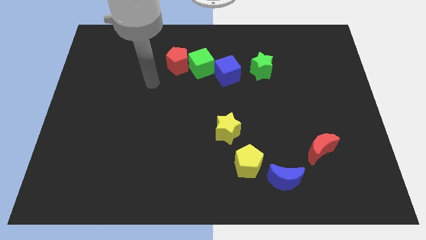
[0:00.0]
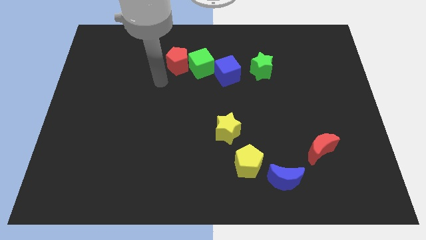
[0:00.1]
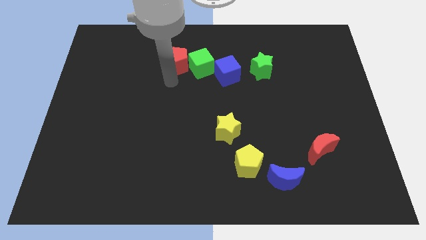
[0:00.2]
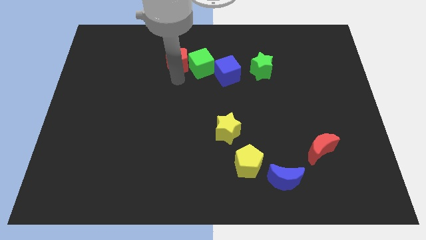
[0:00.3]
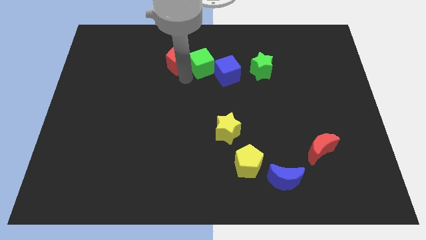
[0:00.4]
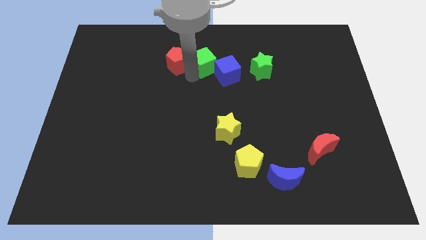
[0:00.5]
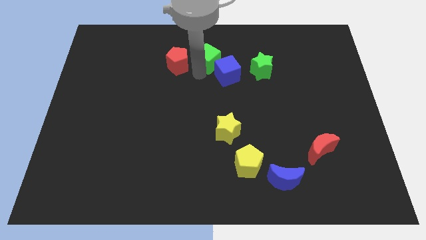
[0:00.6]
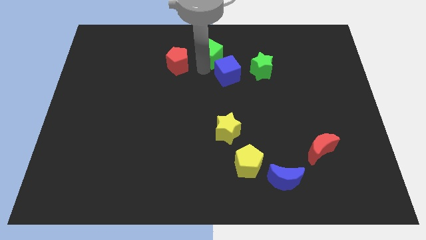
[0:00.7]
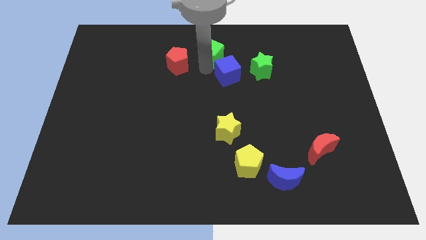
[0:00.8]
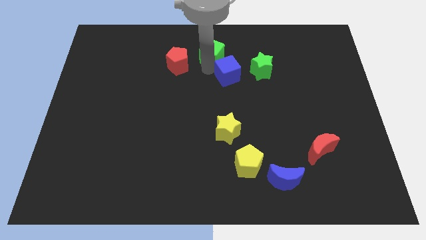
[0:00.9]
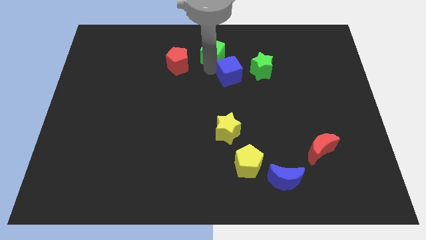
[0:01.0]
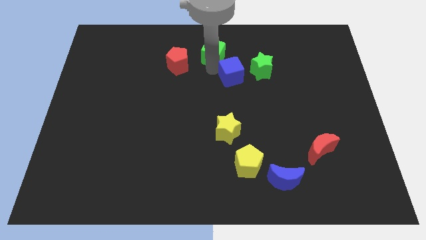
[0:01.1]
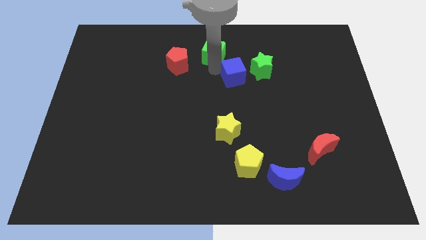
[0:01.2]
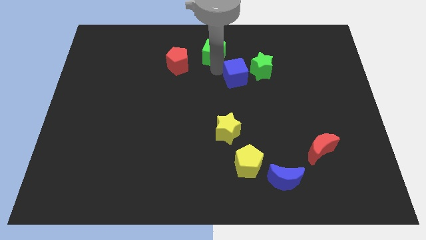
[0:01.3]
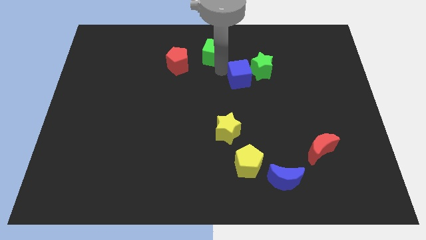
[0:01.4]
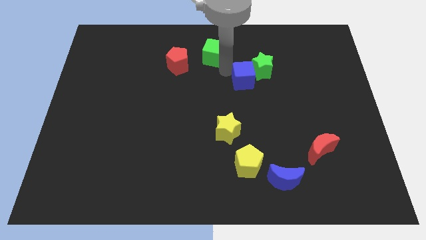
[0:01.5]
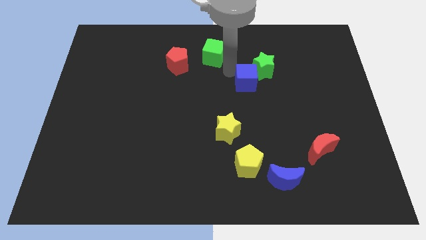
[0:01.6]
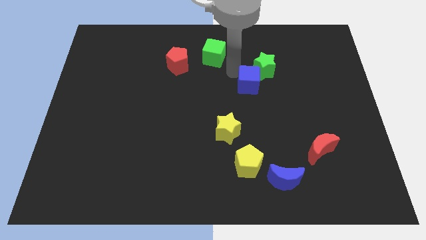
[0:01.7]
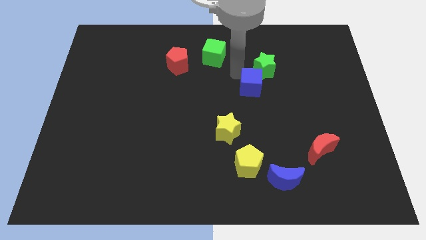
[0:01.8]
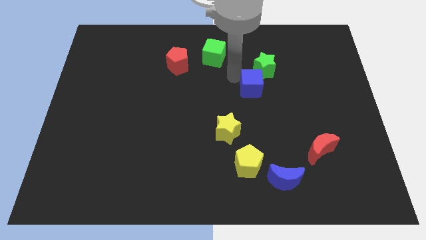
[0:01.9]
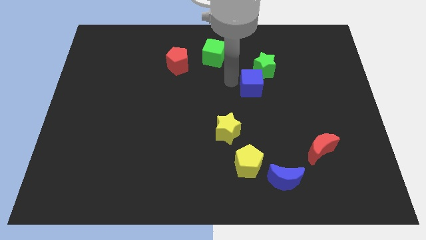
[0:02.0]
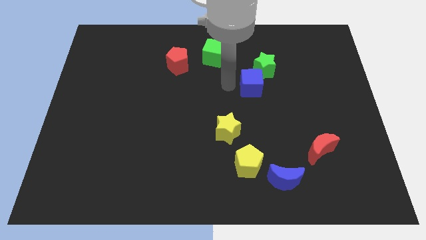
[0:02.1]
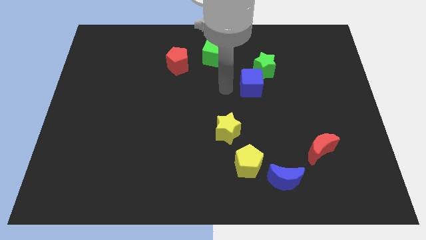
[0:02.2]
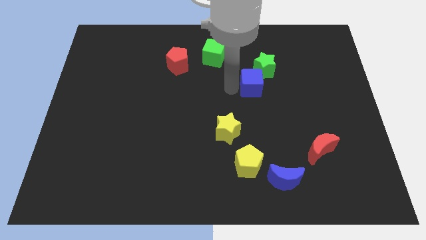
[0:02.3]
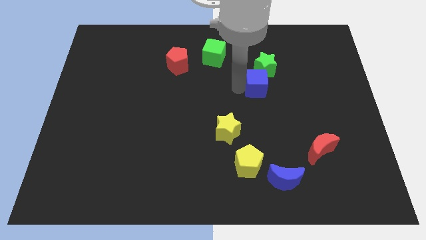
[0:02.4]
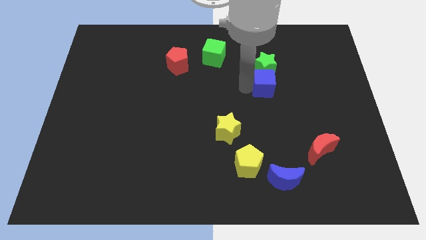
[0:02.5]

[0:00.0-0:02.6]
push the blue cube a little bit to the right

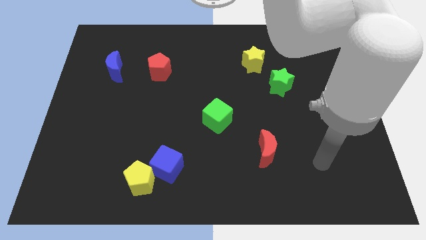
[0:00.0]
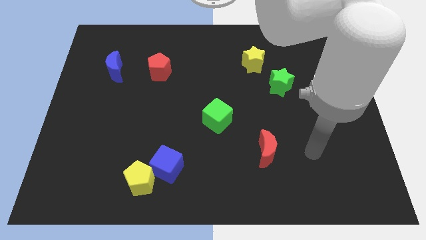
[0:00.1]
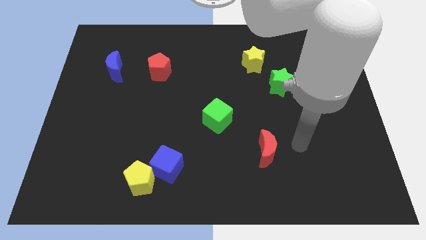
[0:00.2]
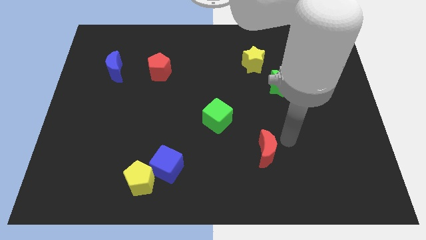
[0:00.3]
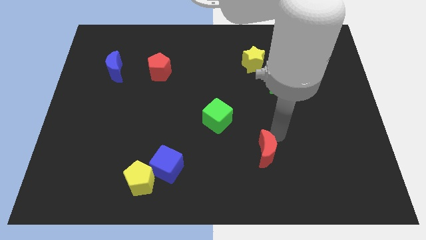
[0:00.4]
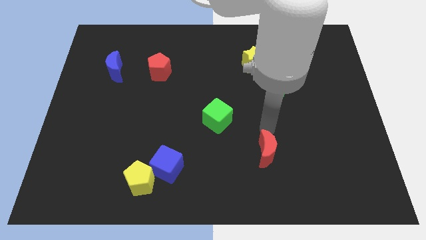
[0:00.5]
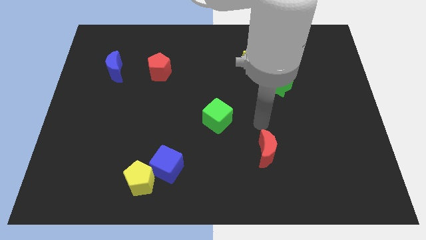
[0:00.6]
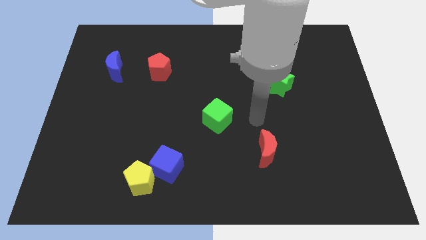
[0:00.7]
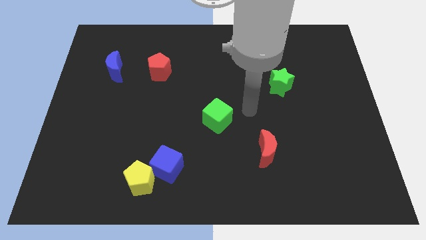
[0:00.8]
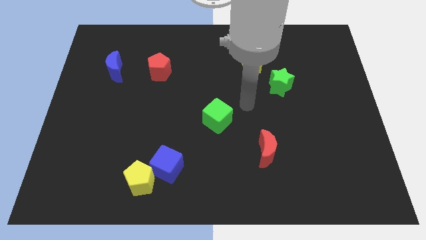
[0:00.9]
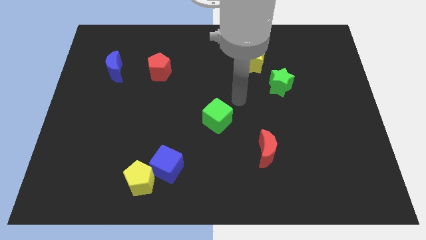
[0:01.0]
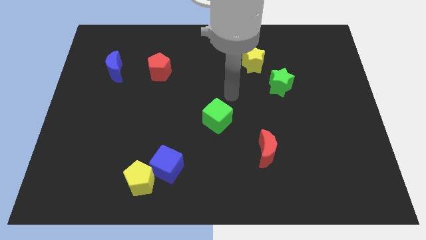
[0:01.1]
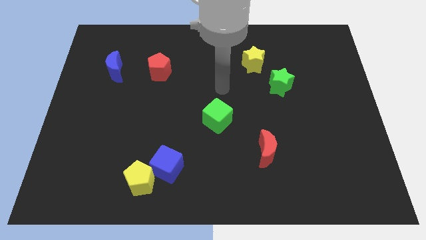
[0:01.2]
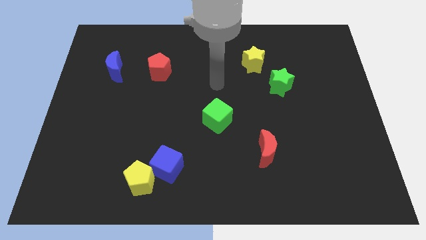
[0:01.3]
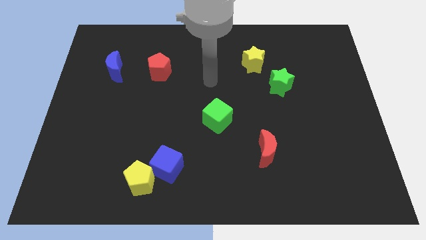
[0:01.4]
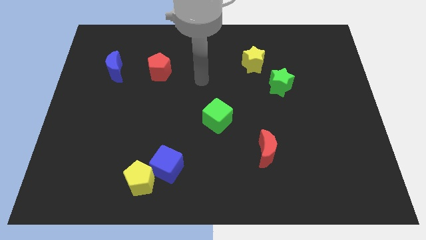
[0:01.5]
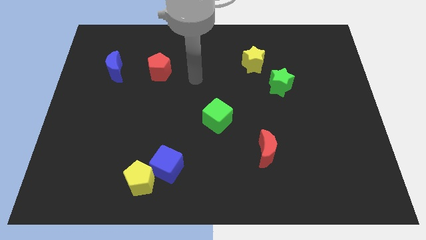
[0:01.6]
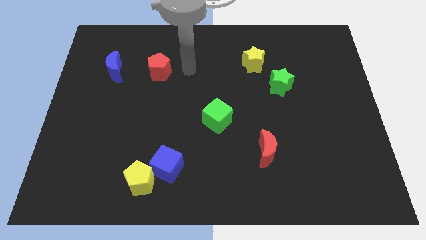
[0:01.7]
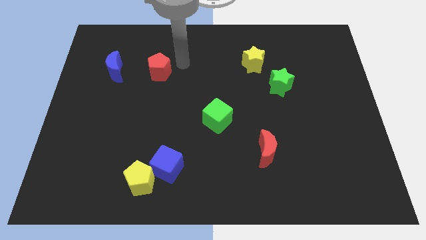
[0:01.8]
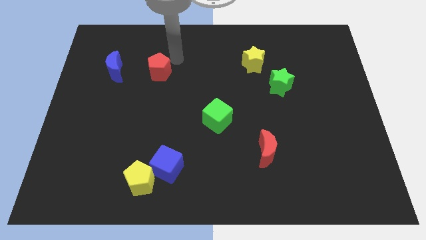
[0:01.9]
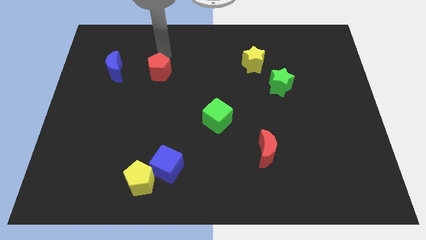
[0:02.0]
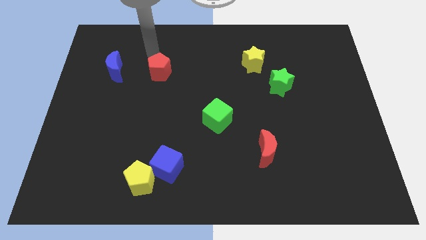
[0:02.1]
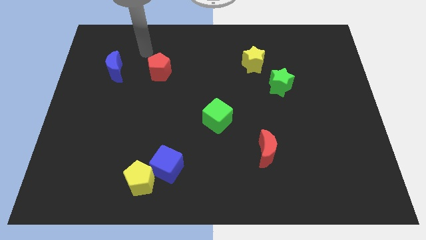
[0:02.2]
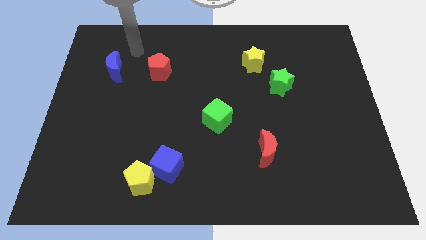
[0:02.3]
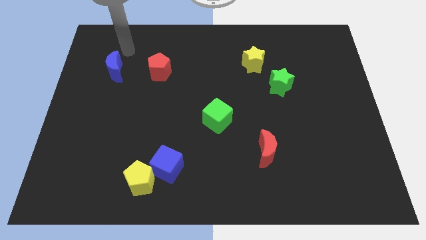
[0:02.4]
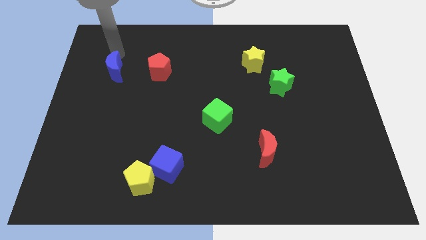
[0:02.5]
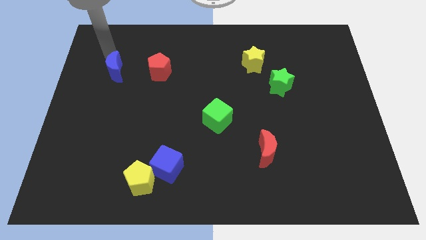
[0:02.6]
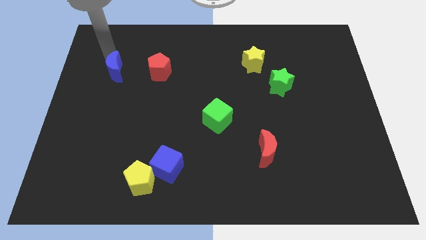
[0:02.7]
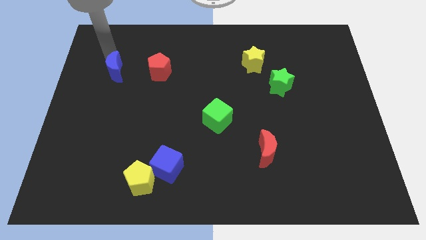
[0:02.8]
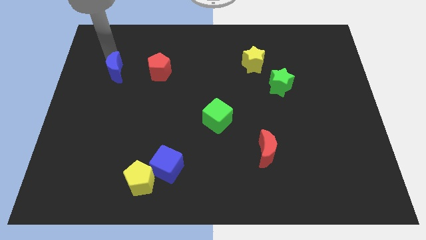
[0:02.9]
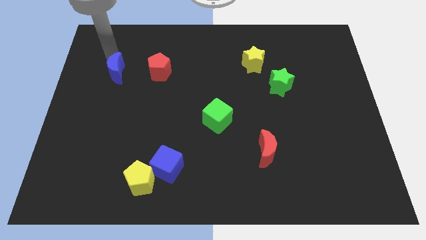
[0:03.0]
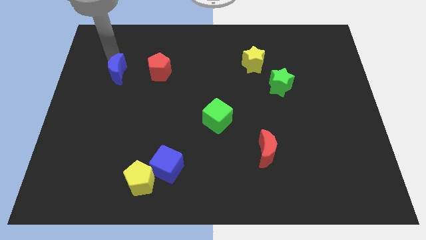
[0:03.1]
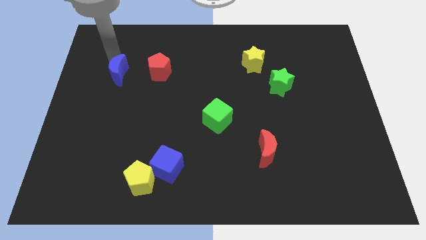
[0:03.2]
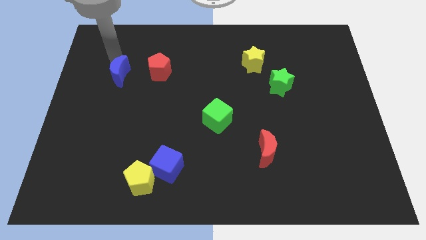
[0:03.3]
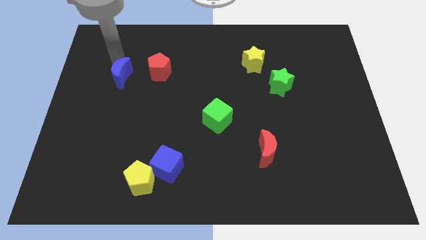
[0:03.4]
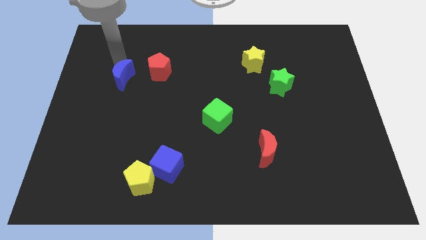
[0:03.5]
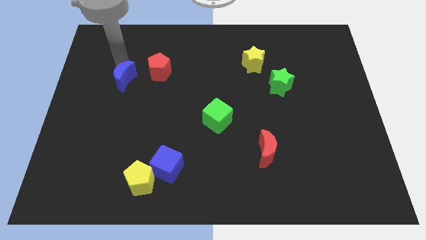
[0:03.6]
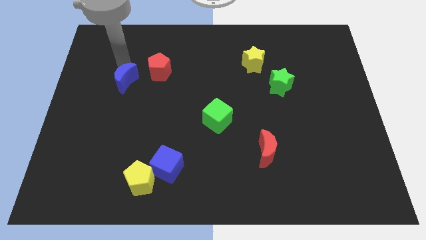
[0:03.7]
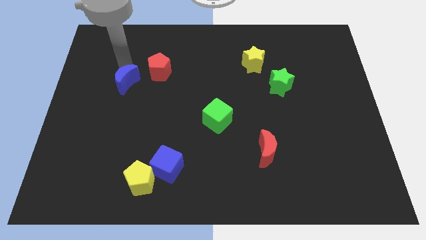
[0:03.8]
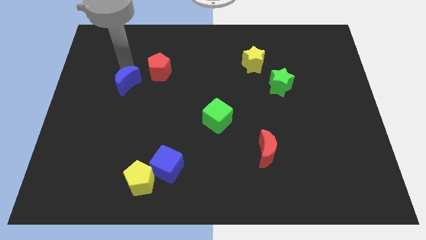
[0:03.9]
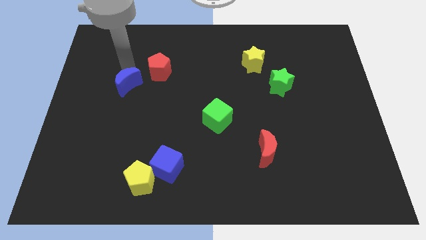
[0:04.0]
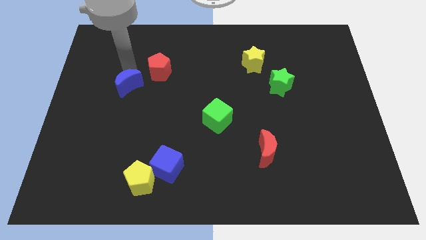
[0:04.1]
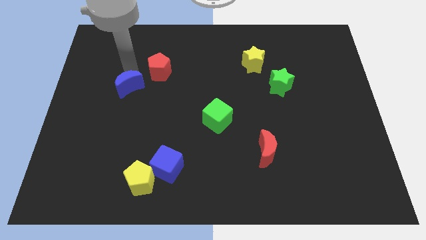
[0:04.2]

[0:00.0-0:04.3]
move the blue moon a little bit downwards and to the right diagonally

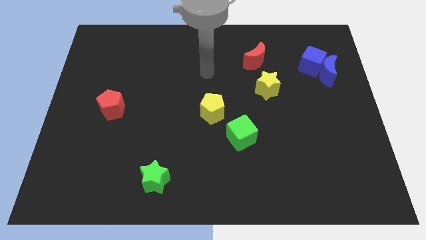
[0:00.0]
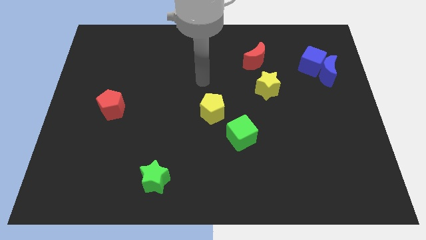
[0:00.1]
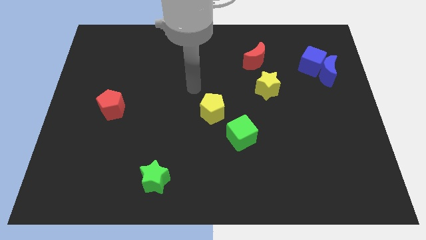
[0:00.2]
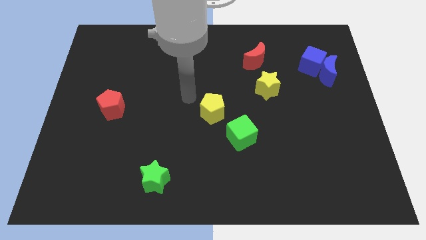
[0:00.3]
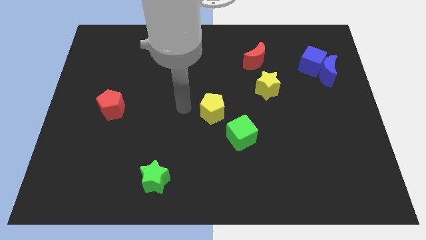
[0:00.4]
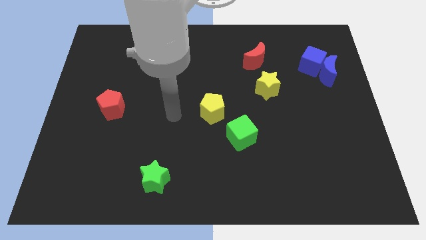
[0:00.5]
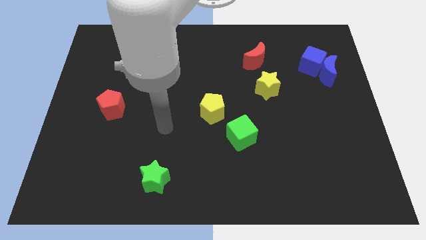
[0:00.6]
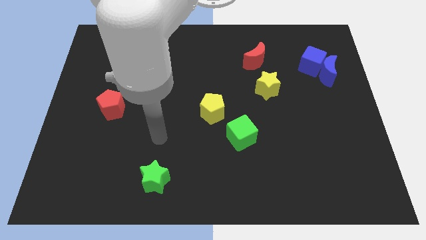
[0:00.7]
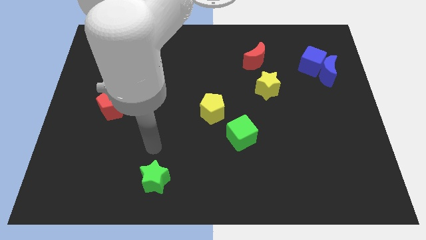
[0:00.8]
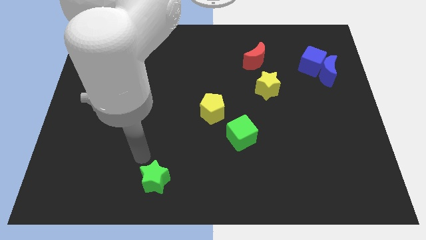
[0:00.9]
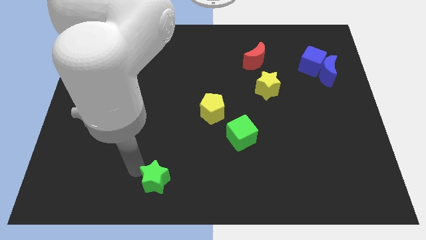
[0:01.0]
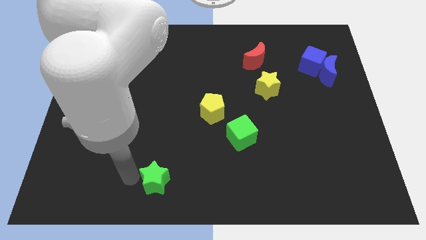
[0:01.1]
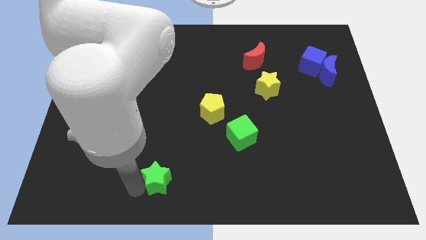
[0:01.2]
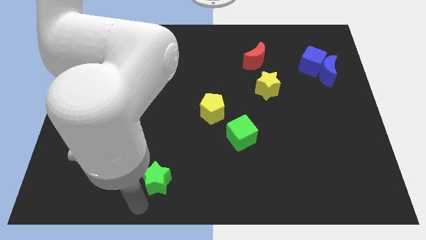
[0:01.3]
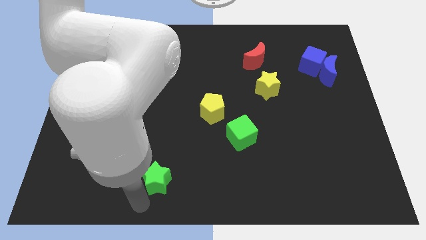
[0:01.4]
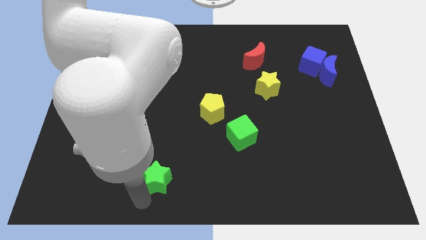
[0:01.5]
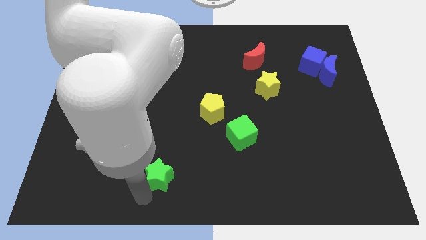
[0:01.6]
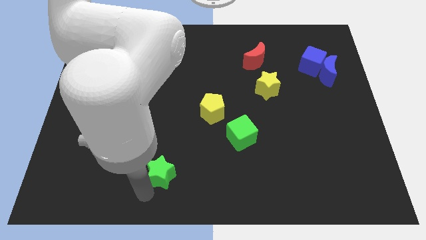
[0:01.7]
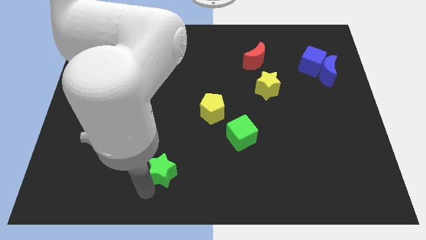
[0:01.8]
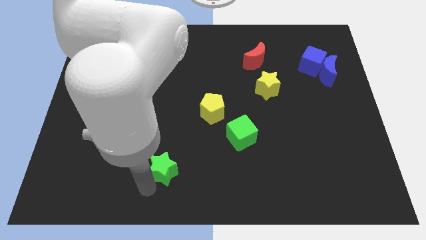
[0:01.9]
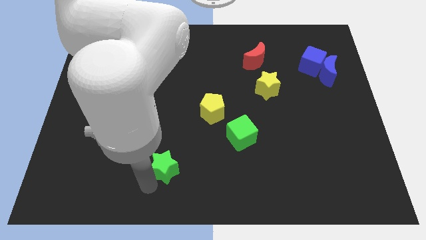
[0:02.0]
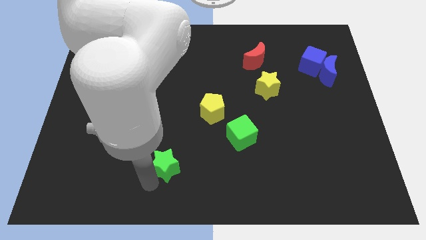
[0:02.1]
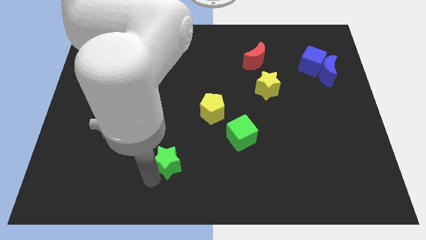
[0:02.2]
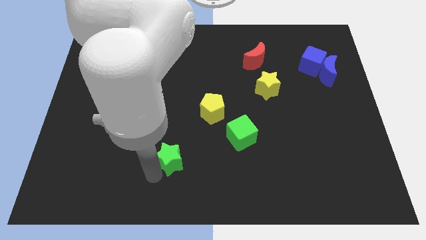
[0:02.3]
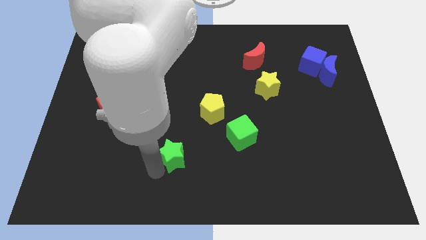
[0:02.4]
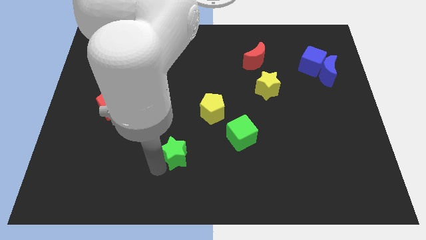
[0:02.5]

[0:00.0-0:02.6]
slide the green star up and then right a bit
